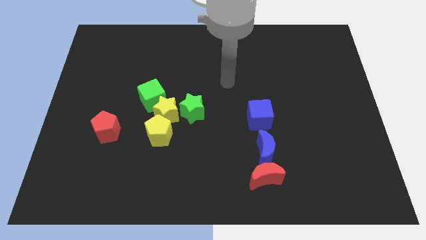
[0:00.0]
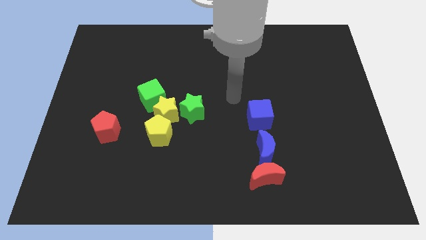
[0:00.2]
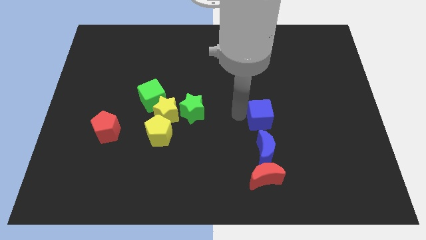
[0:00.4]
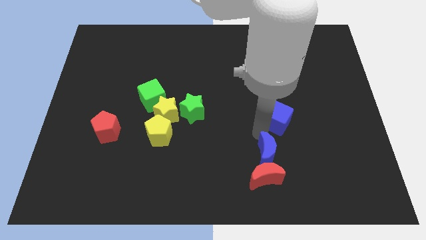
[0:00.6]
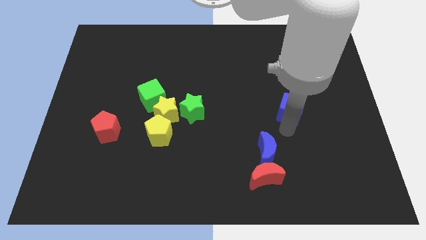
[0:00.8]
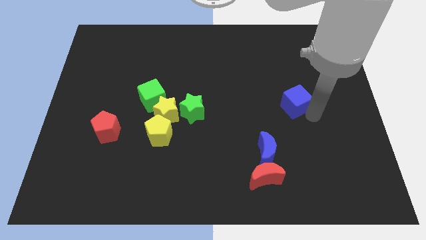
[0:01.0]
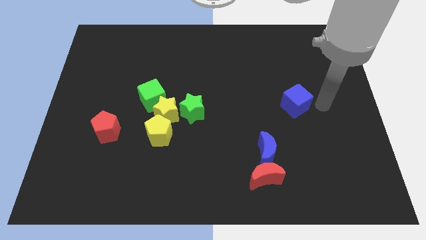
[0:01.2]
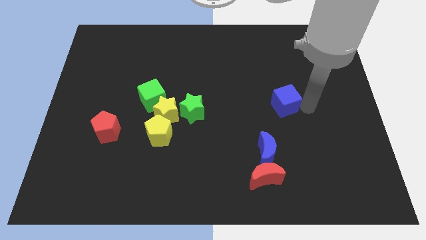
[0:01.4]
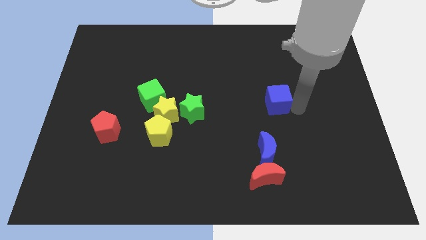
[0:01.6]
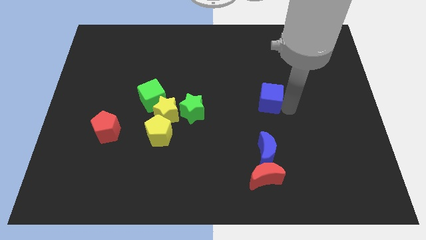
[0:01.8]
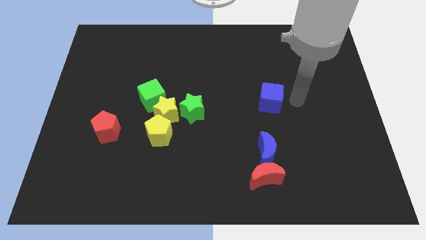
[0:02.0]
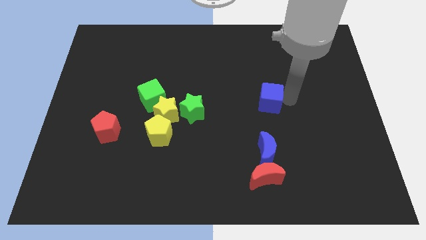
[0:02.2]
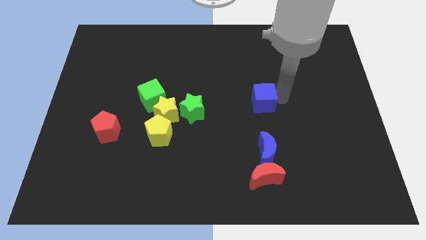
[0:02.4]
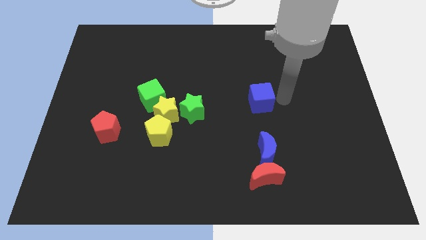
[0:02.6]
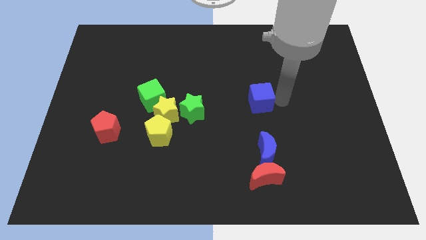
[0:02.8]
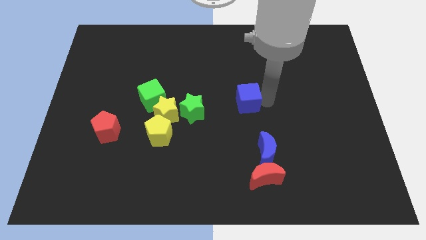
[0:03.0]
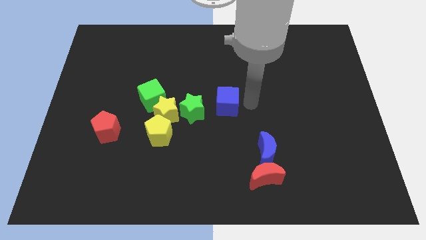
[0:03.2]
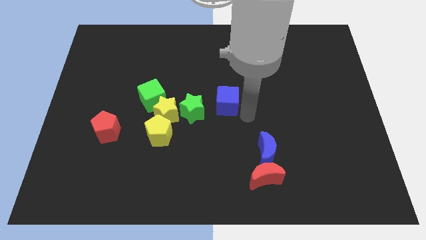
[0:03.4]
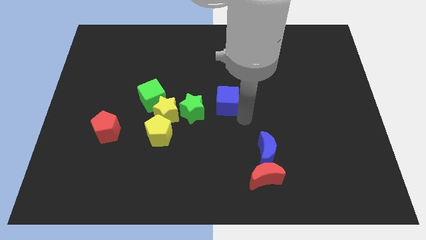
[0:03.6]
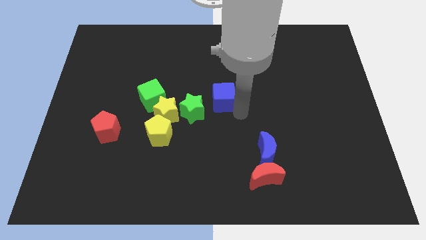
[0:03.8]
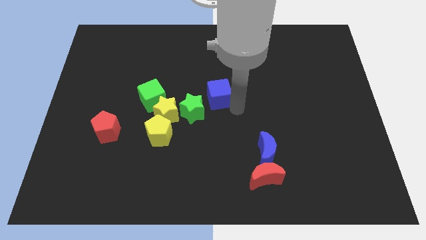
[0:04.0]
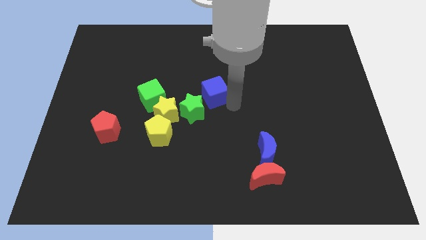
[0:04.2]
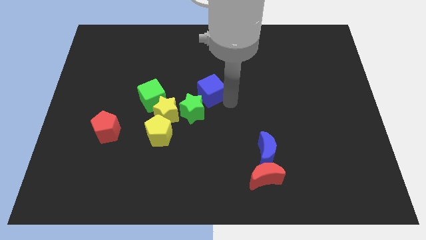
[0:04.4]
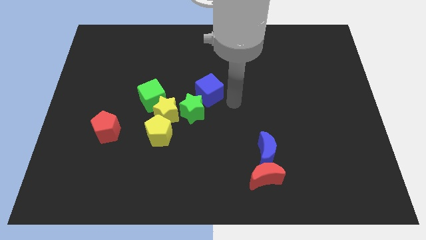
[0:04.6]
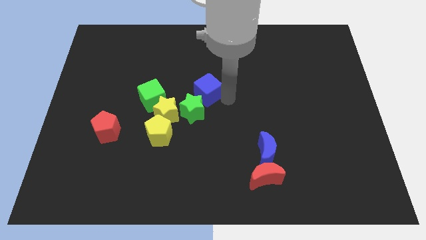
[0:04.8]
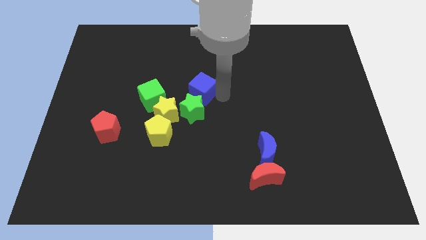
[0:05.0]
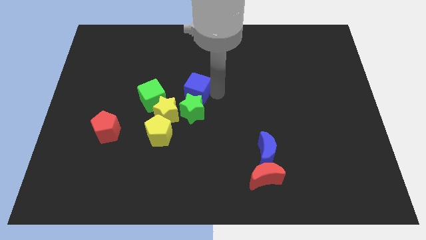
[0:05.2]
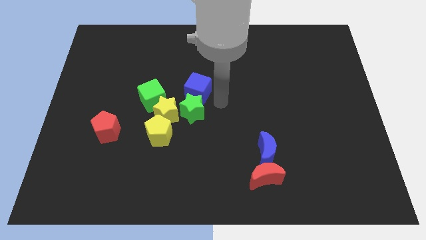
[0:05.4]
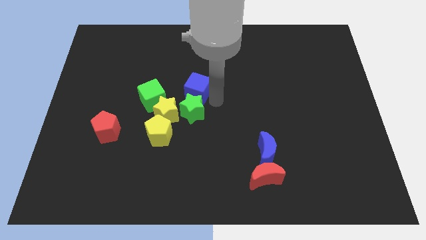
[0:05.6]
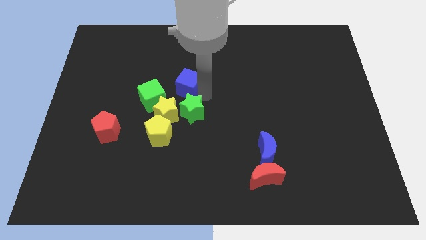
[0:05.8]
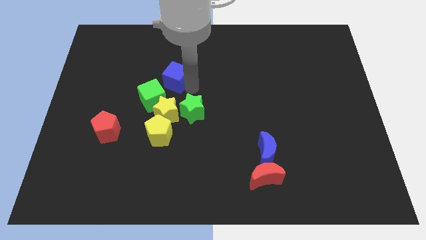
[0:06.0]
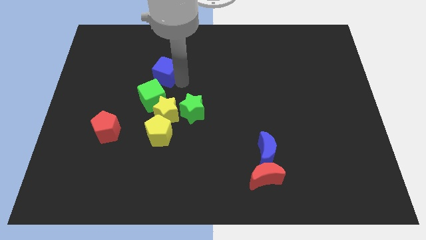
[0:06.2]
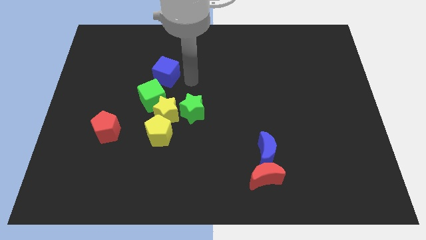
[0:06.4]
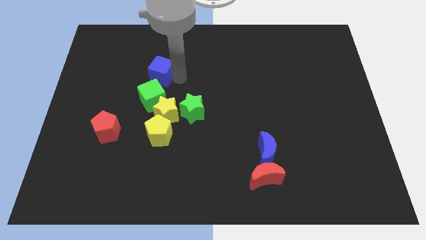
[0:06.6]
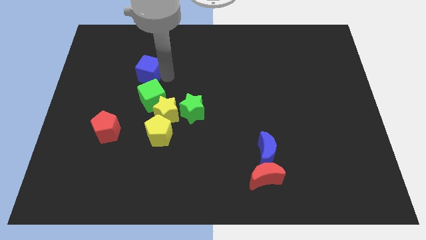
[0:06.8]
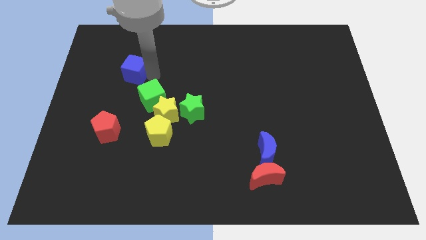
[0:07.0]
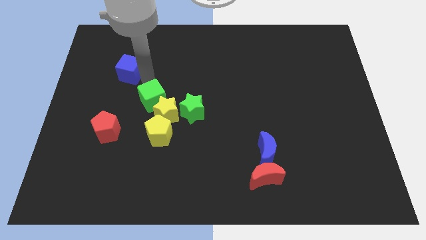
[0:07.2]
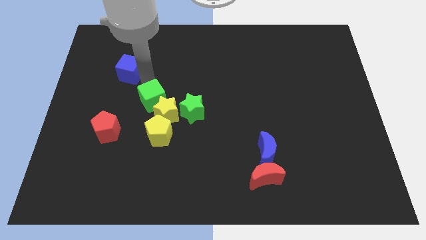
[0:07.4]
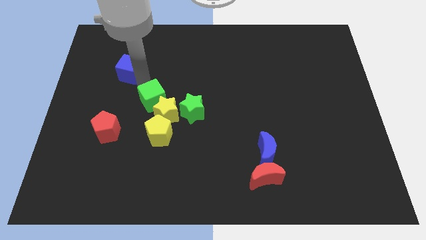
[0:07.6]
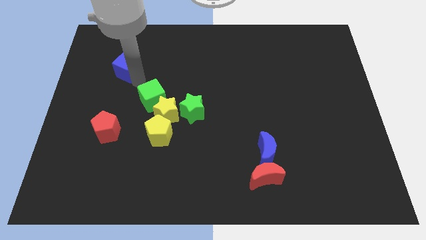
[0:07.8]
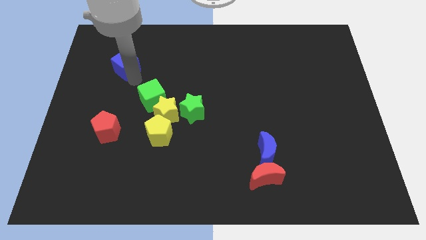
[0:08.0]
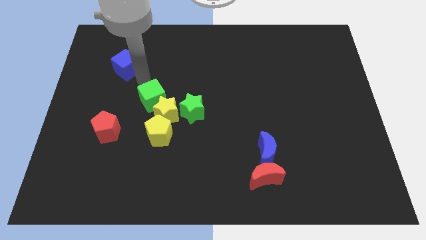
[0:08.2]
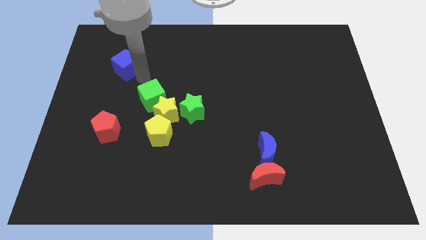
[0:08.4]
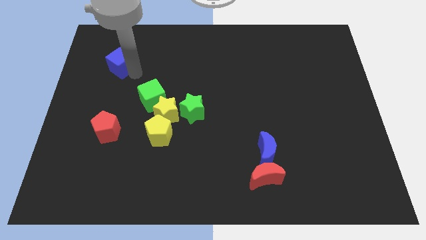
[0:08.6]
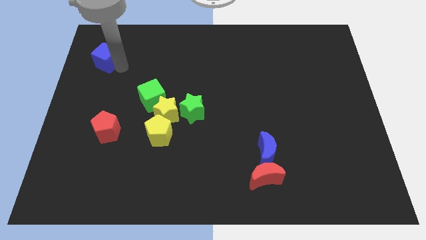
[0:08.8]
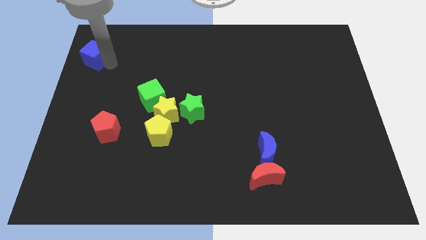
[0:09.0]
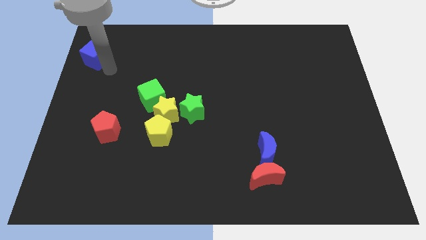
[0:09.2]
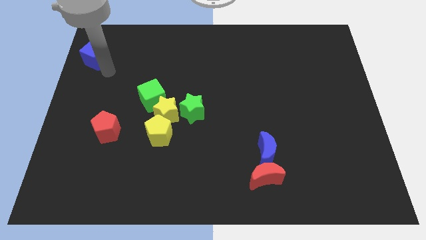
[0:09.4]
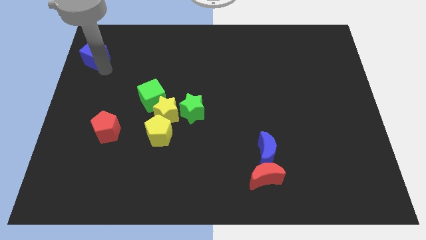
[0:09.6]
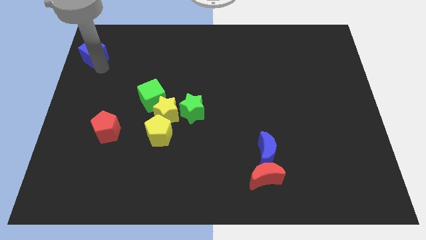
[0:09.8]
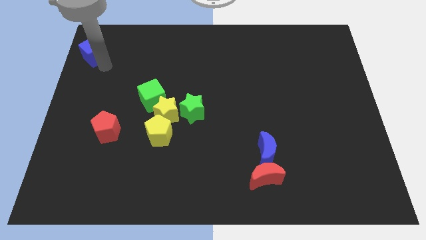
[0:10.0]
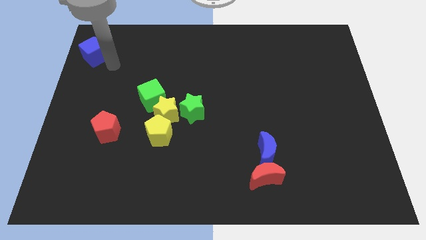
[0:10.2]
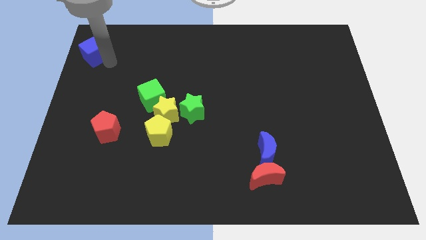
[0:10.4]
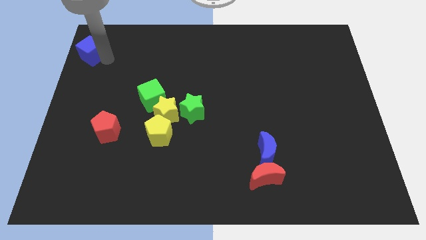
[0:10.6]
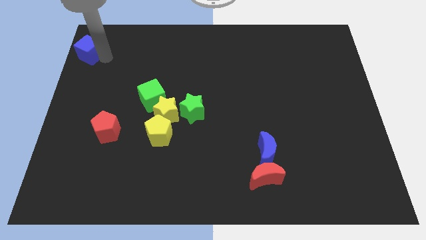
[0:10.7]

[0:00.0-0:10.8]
move the blue cube to the upper left corner

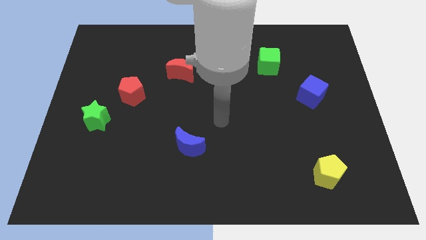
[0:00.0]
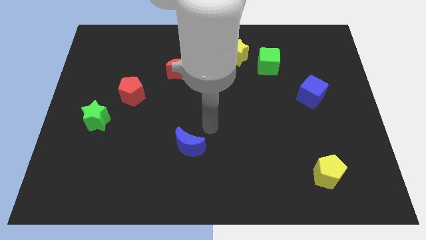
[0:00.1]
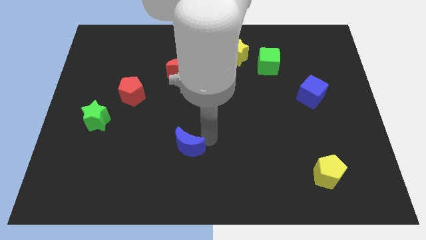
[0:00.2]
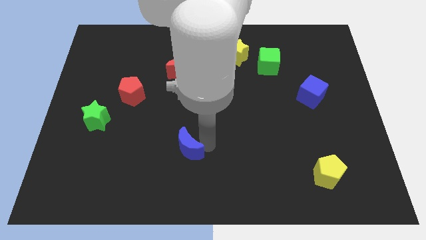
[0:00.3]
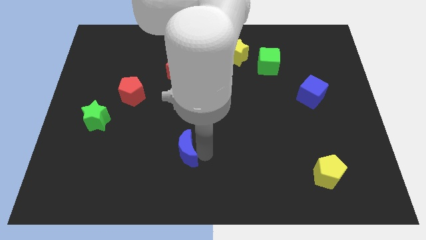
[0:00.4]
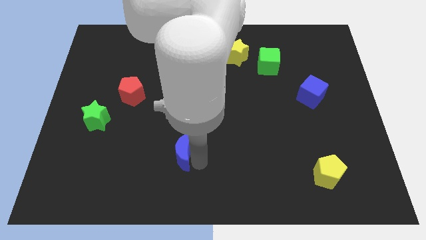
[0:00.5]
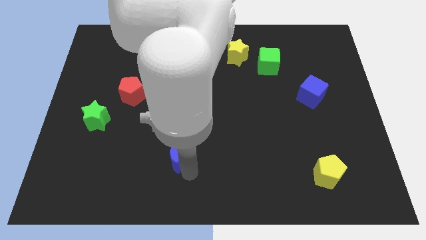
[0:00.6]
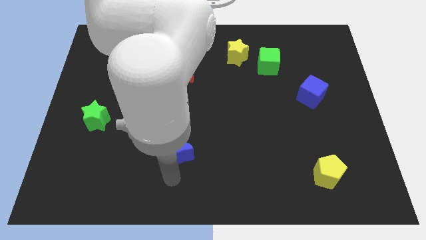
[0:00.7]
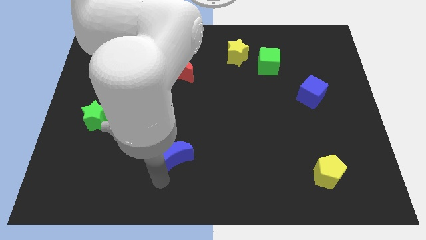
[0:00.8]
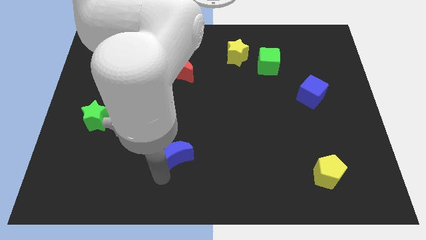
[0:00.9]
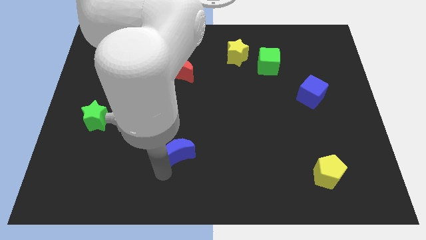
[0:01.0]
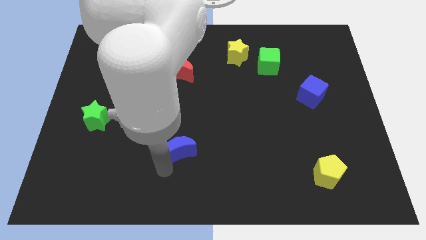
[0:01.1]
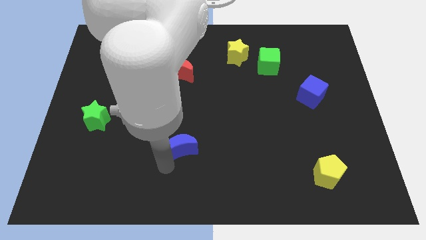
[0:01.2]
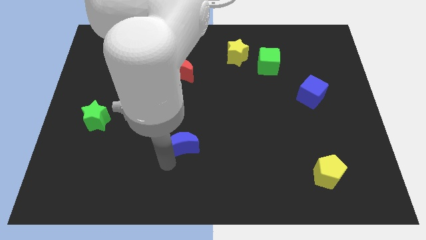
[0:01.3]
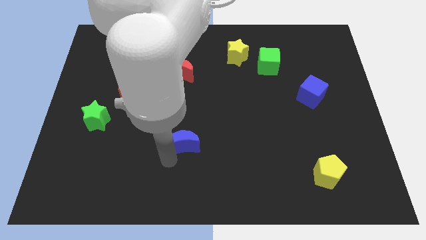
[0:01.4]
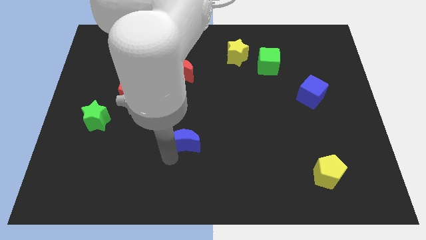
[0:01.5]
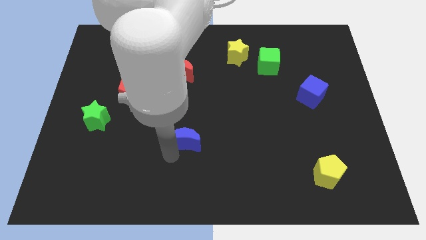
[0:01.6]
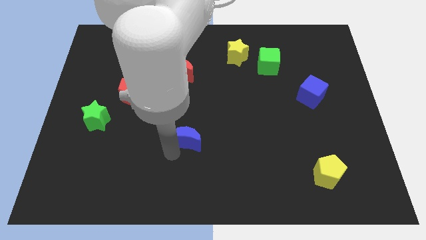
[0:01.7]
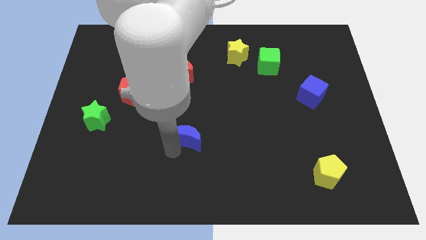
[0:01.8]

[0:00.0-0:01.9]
push the blue moon to the center of the board

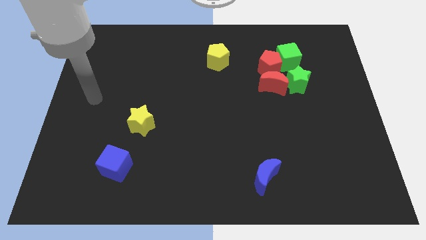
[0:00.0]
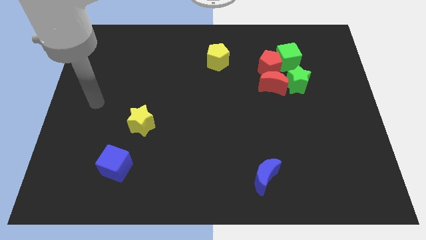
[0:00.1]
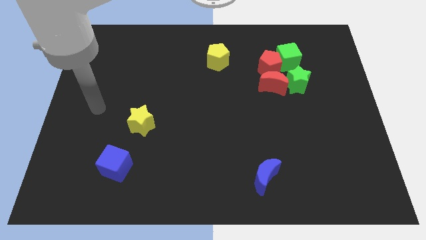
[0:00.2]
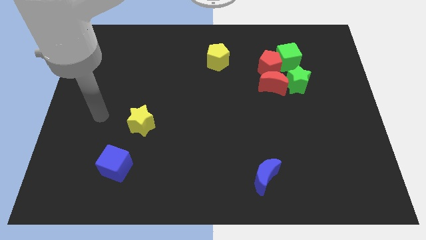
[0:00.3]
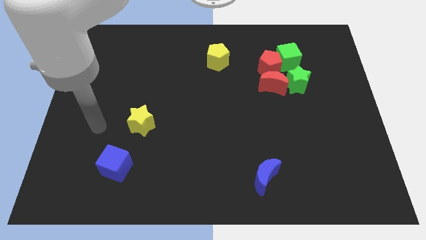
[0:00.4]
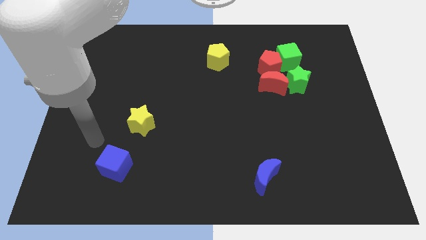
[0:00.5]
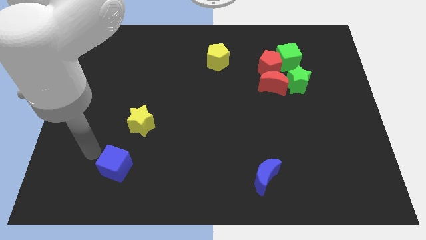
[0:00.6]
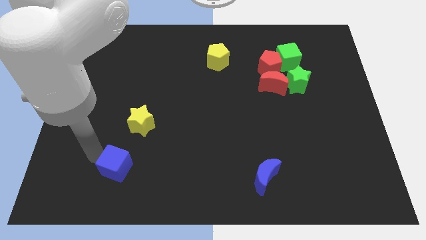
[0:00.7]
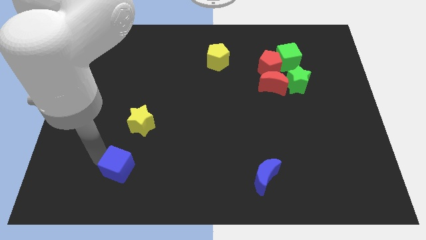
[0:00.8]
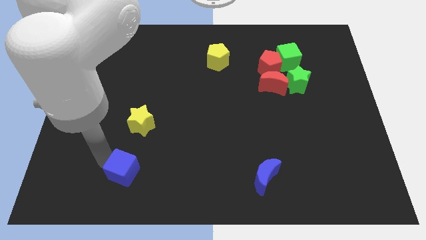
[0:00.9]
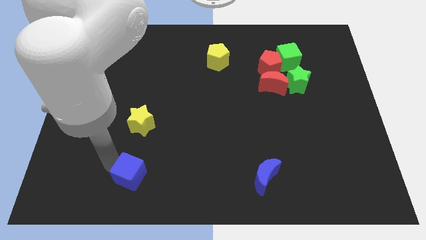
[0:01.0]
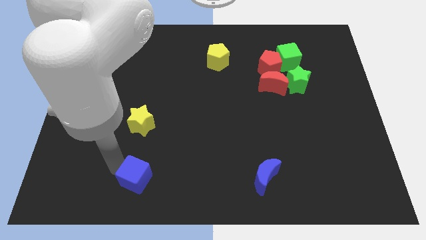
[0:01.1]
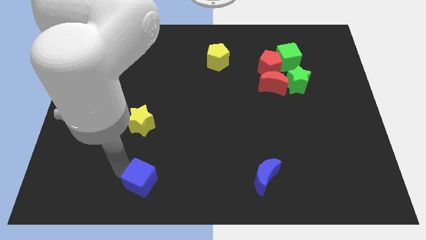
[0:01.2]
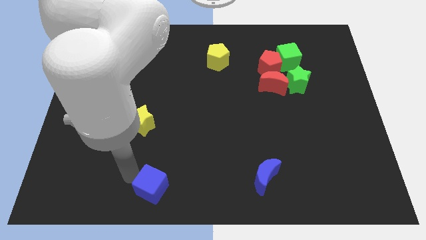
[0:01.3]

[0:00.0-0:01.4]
move the blue cube to the bottom
